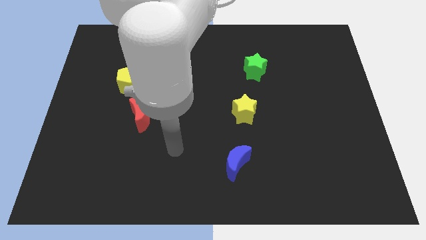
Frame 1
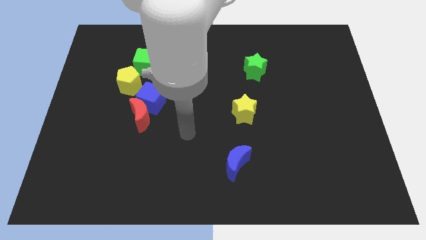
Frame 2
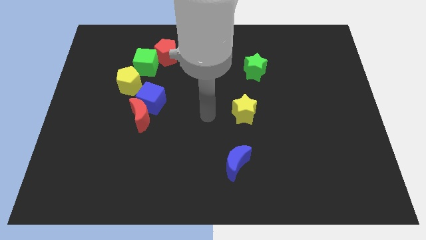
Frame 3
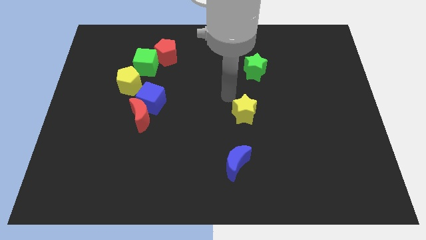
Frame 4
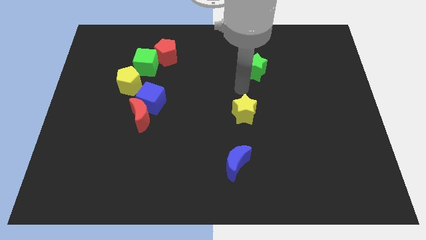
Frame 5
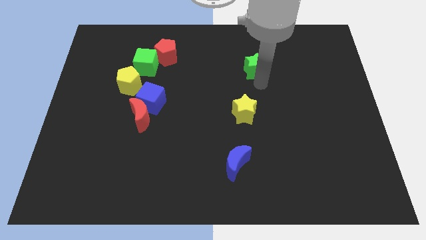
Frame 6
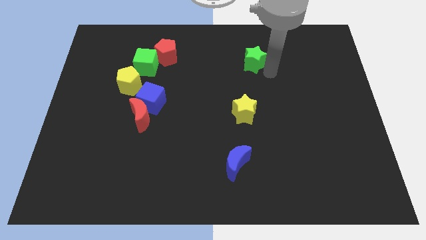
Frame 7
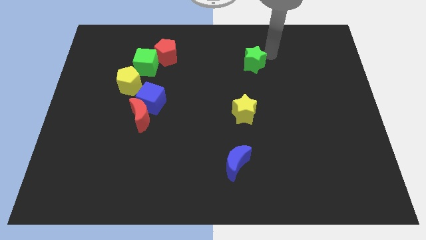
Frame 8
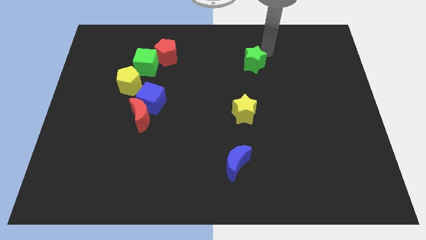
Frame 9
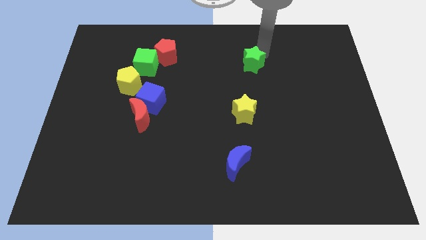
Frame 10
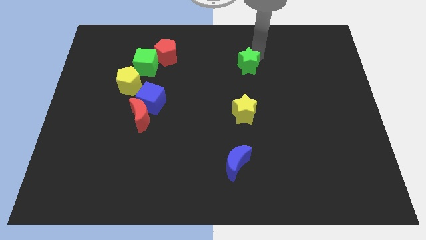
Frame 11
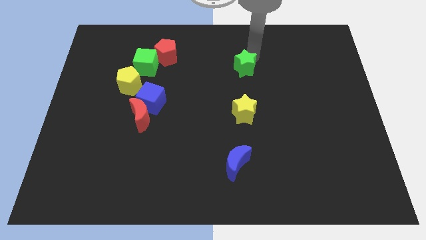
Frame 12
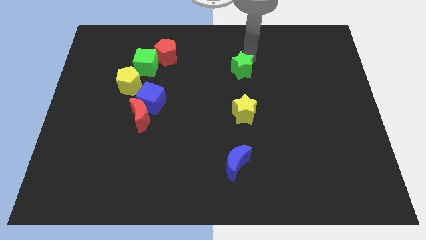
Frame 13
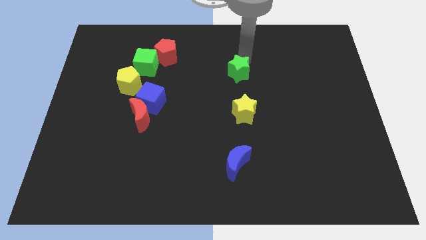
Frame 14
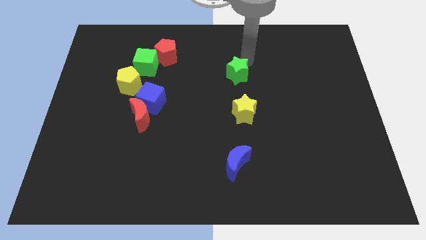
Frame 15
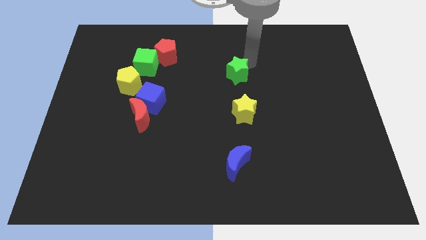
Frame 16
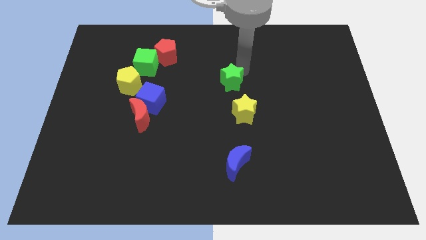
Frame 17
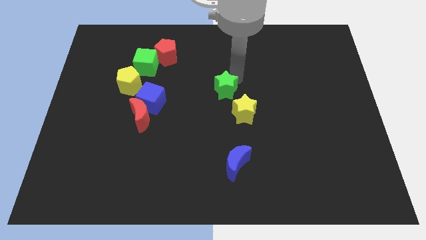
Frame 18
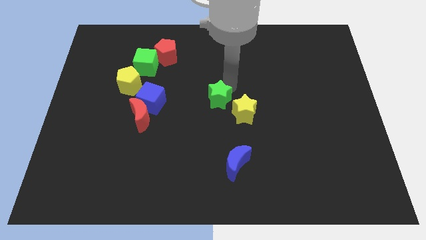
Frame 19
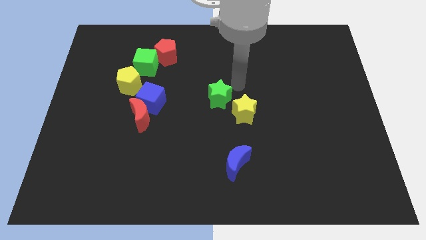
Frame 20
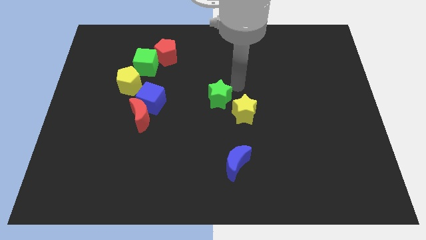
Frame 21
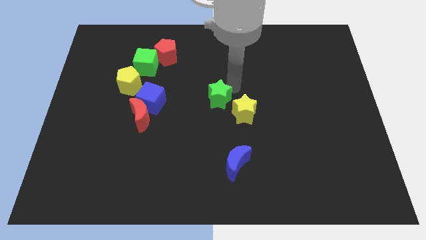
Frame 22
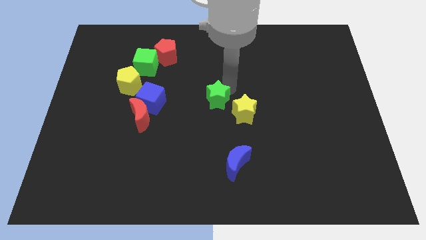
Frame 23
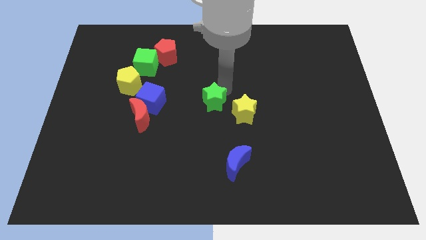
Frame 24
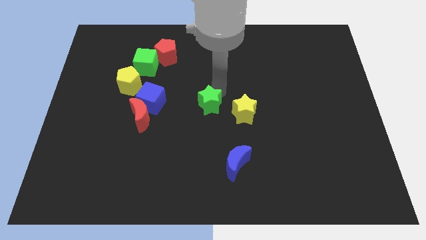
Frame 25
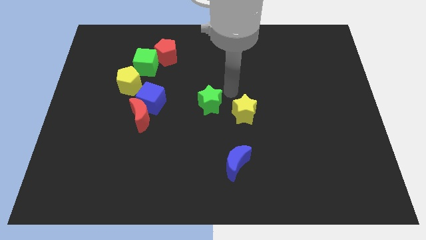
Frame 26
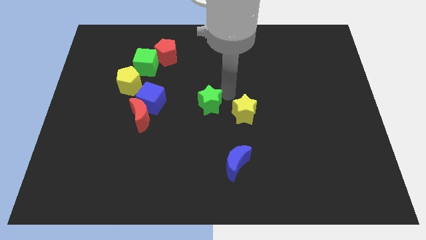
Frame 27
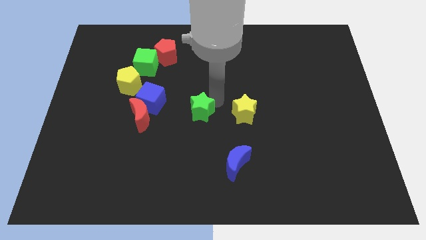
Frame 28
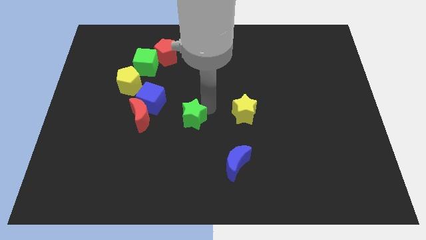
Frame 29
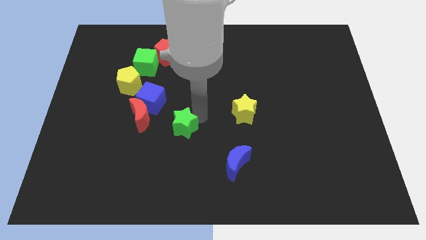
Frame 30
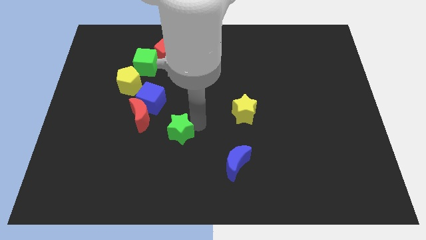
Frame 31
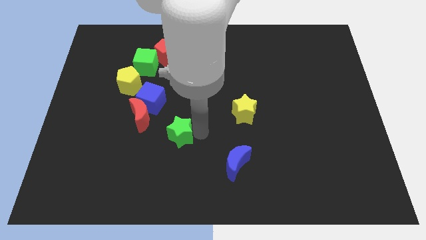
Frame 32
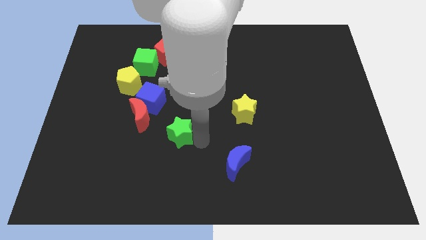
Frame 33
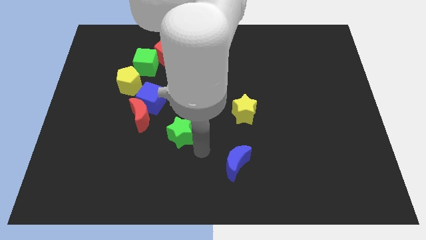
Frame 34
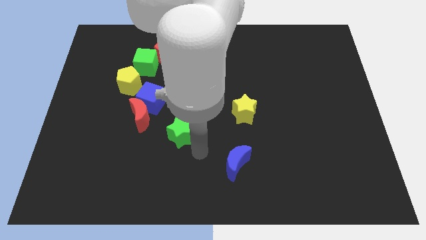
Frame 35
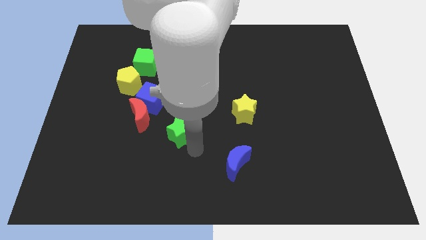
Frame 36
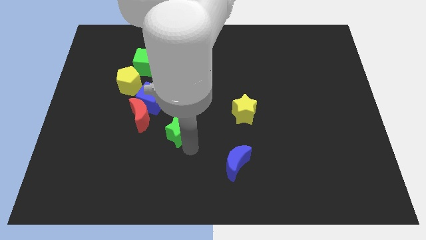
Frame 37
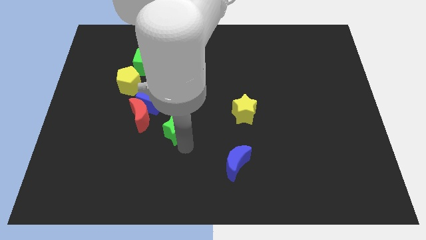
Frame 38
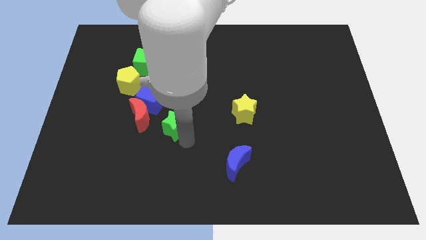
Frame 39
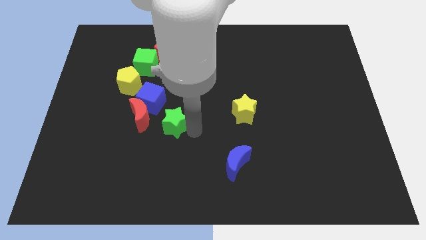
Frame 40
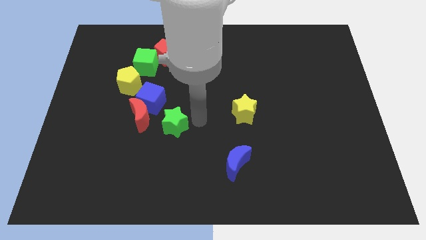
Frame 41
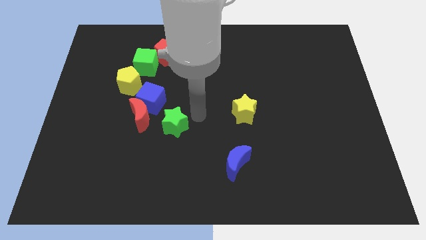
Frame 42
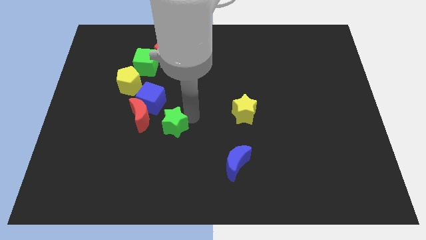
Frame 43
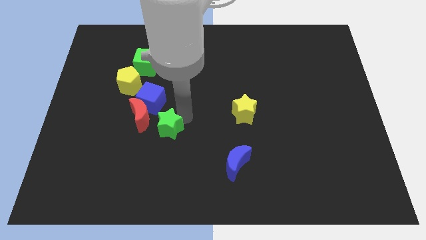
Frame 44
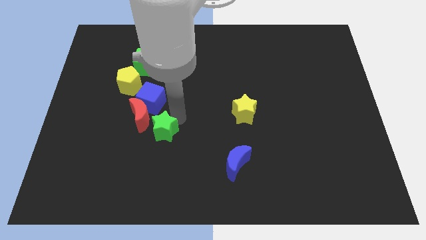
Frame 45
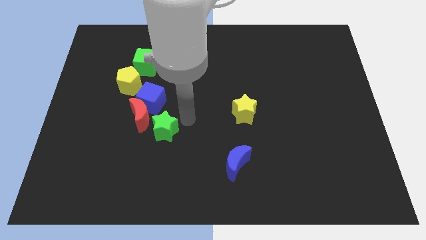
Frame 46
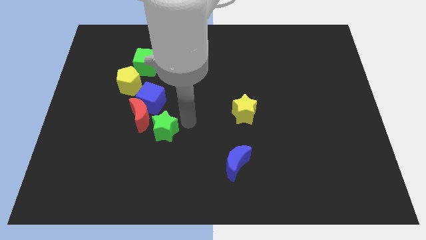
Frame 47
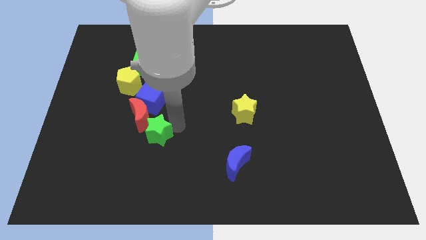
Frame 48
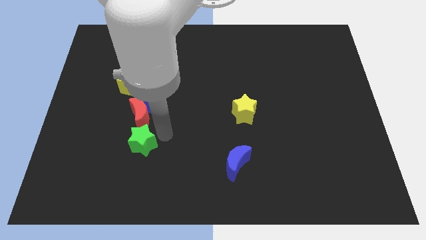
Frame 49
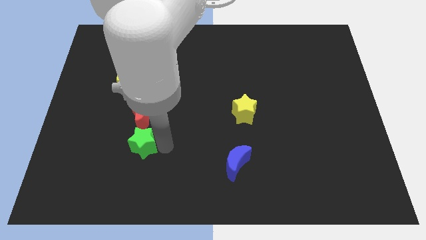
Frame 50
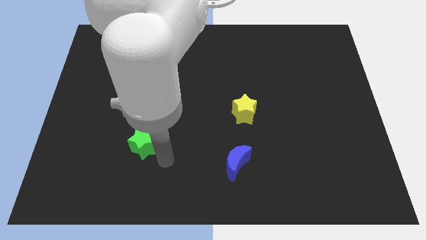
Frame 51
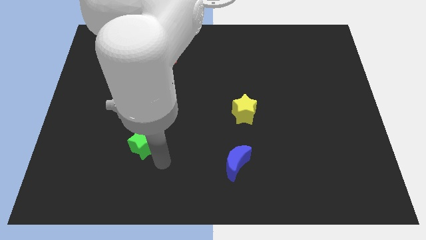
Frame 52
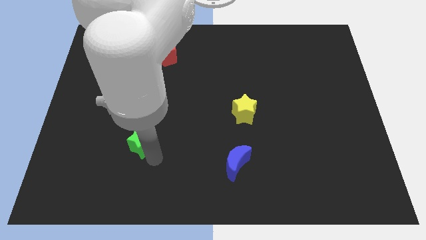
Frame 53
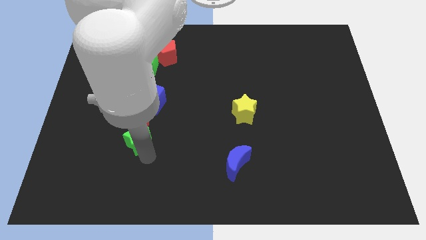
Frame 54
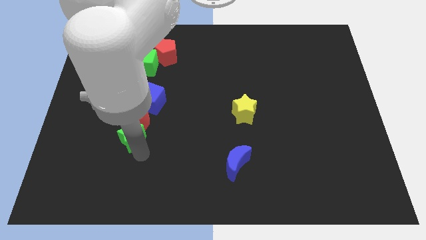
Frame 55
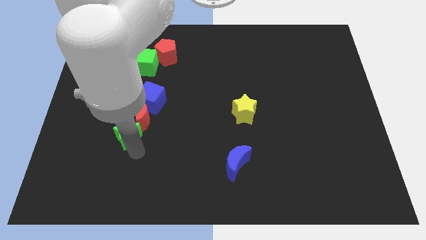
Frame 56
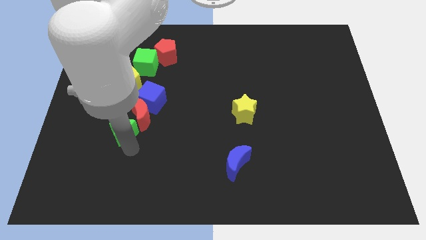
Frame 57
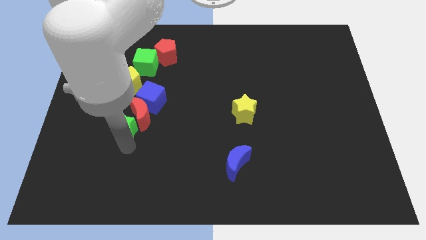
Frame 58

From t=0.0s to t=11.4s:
put the green star just left of the red moon

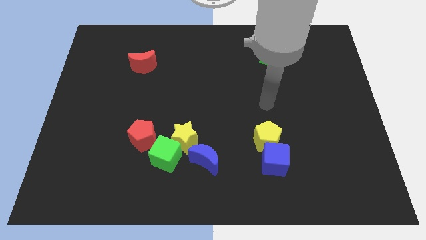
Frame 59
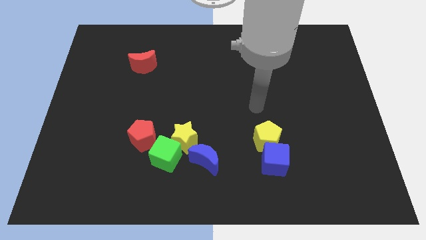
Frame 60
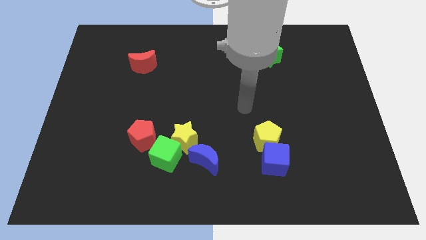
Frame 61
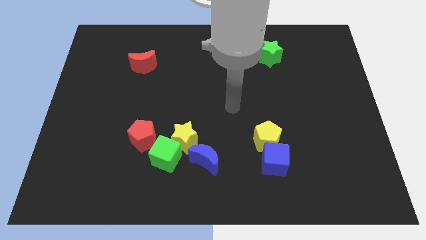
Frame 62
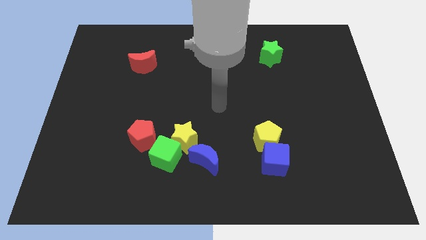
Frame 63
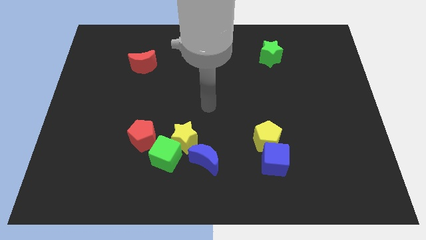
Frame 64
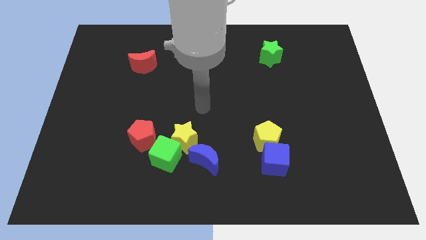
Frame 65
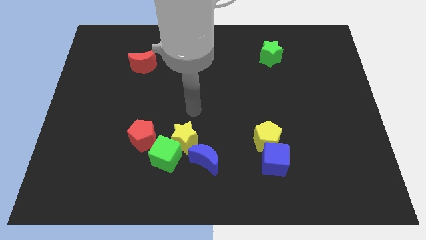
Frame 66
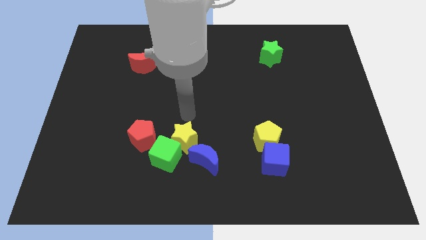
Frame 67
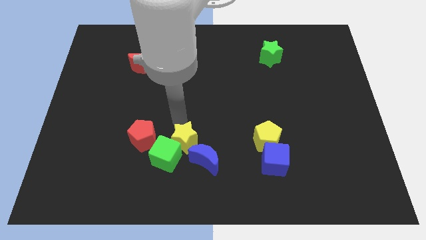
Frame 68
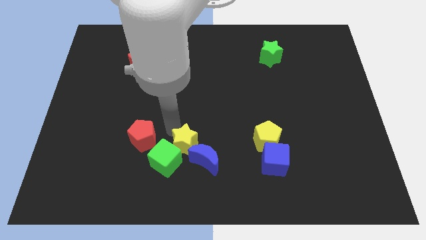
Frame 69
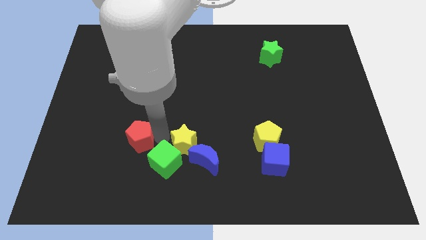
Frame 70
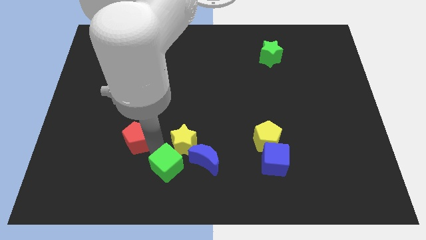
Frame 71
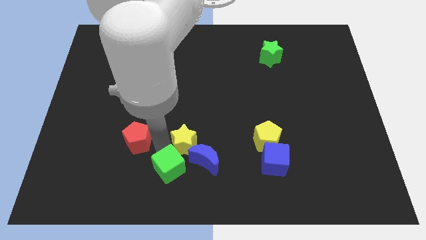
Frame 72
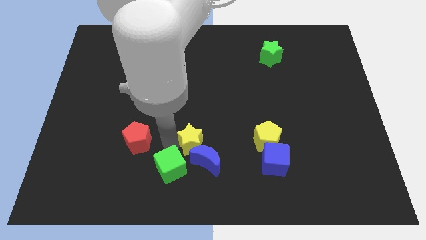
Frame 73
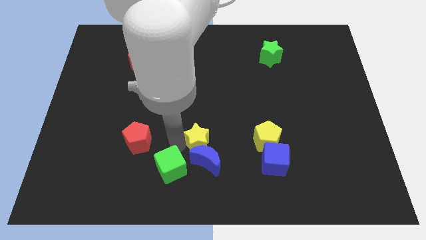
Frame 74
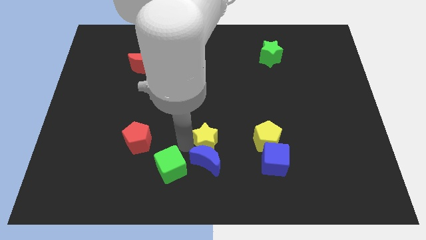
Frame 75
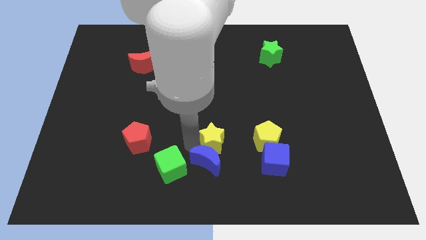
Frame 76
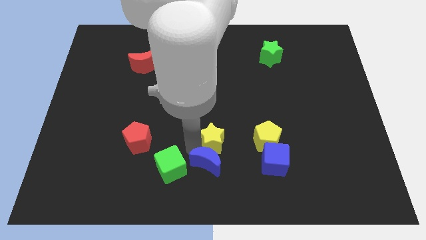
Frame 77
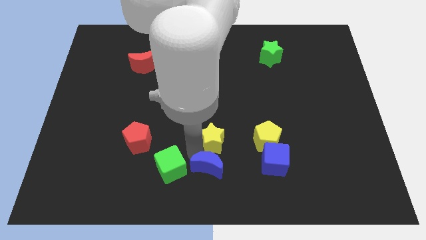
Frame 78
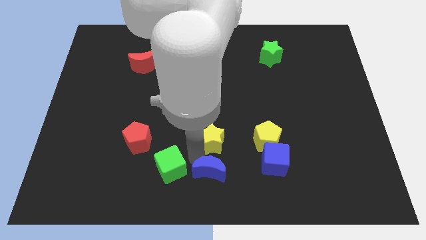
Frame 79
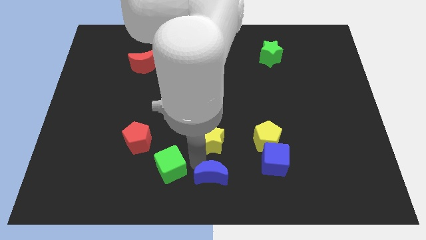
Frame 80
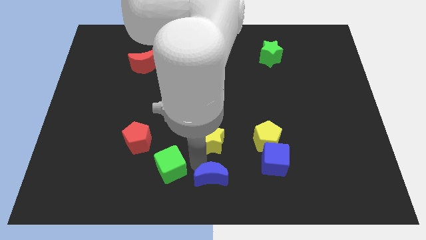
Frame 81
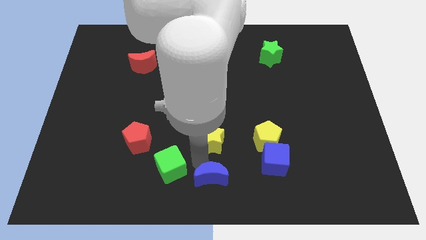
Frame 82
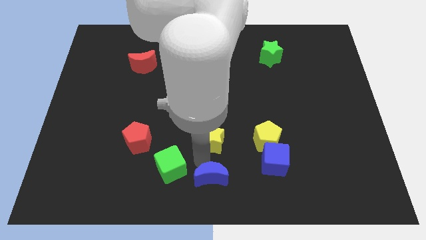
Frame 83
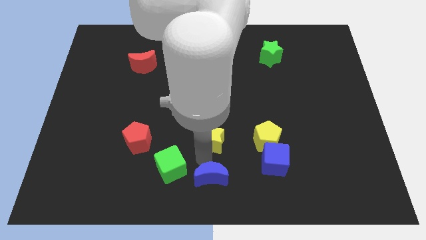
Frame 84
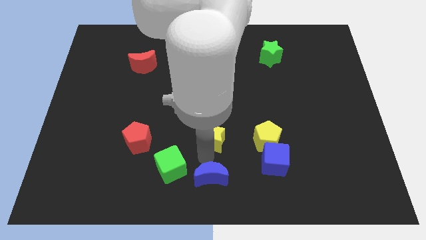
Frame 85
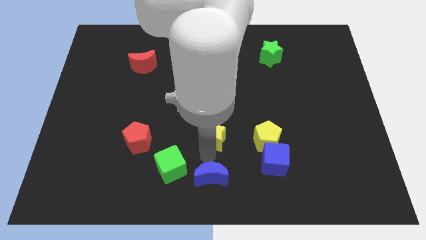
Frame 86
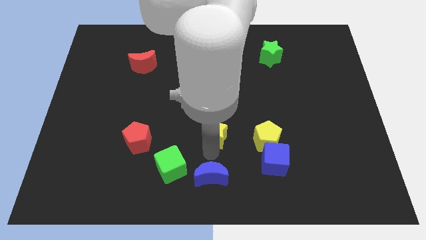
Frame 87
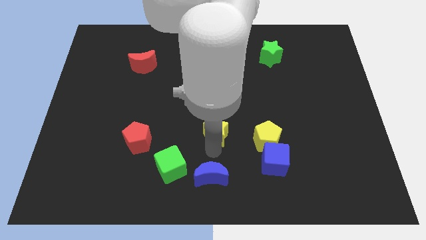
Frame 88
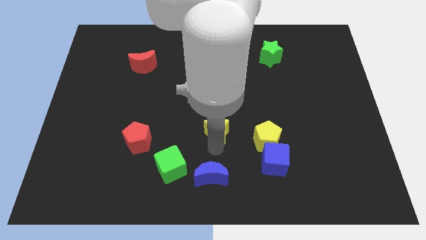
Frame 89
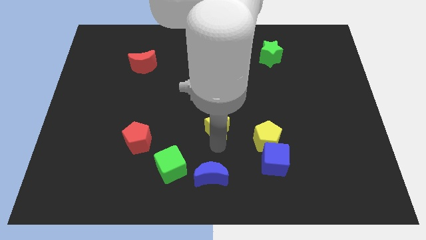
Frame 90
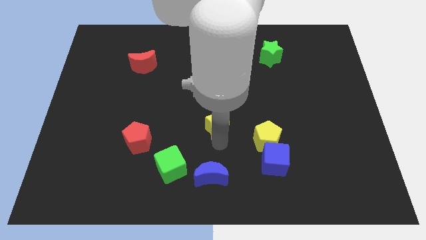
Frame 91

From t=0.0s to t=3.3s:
push the yellow star diagonally up and to the left of the yellow pentagon

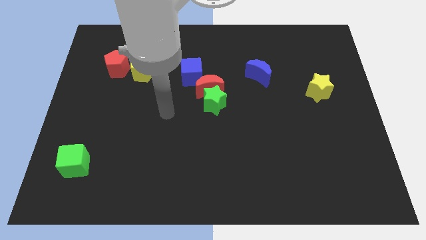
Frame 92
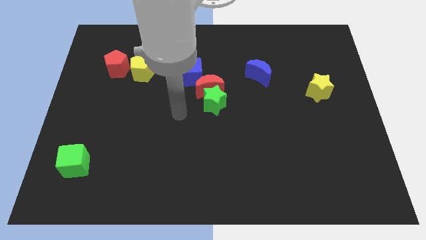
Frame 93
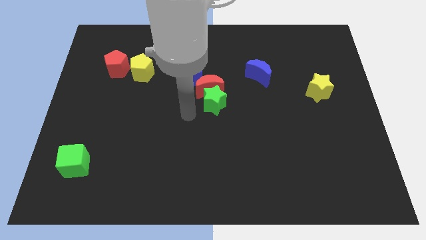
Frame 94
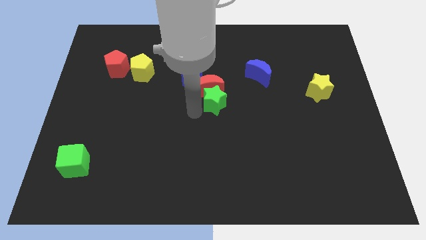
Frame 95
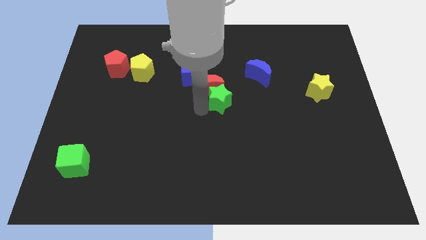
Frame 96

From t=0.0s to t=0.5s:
move the green star to the right of the red moon
